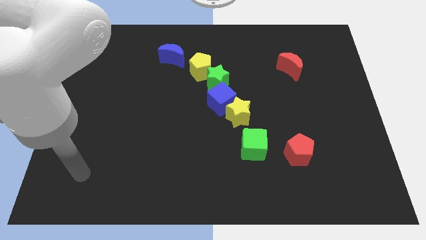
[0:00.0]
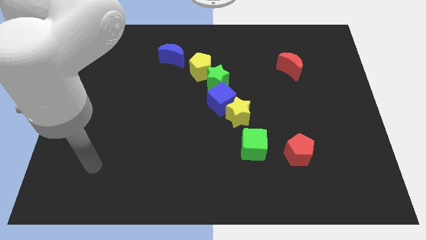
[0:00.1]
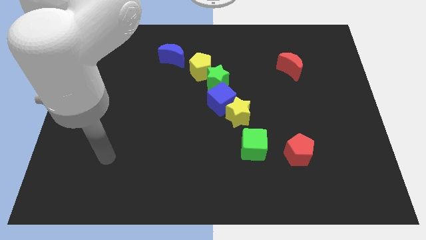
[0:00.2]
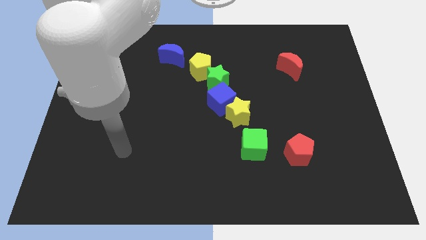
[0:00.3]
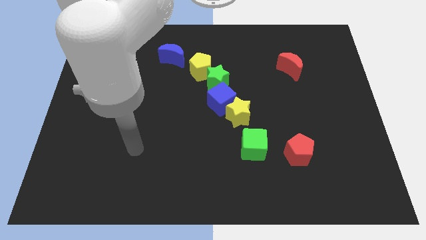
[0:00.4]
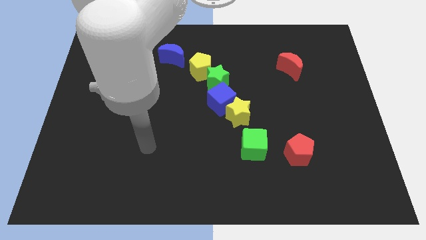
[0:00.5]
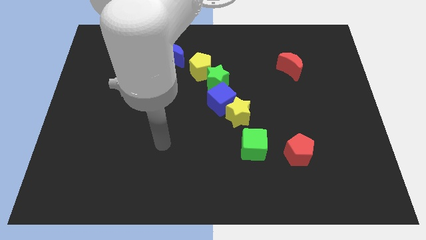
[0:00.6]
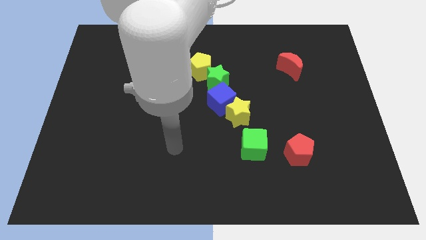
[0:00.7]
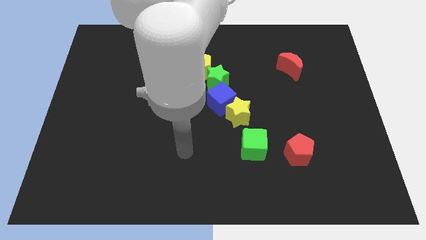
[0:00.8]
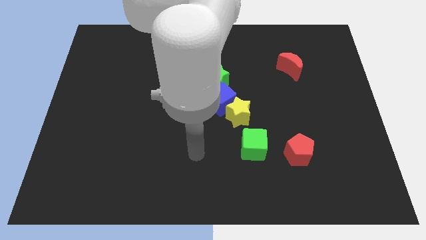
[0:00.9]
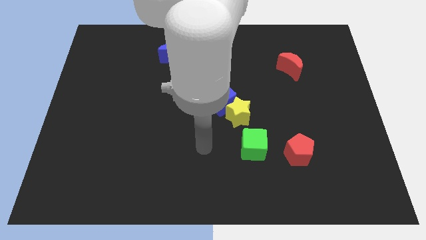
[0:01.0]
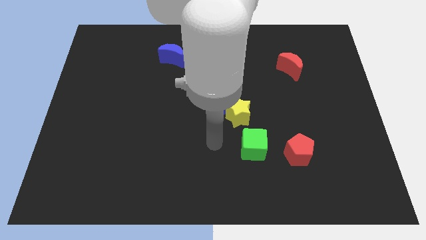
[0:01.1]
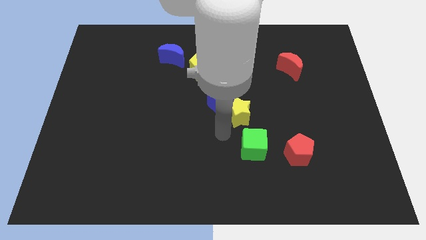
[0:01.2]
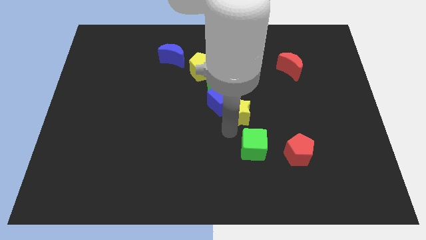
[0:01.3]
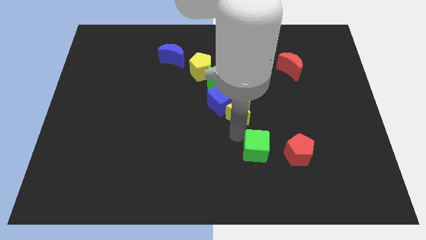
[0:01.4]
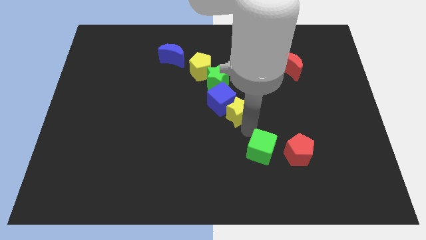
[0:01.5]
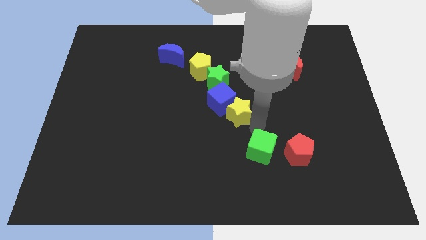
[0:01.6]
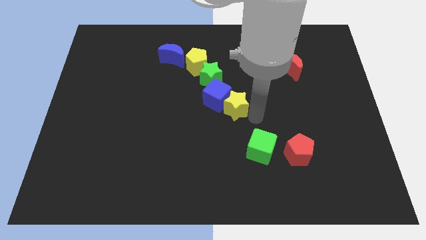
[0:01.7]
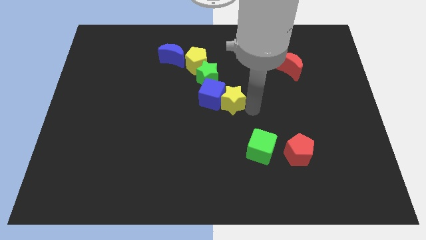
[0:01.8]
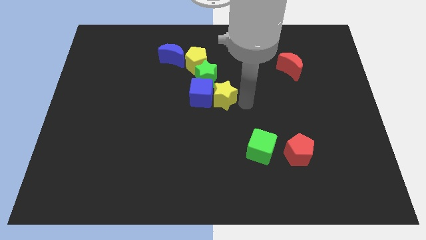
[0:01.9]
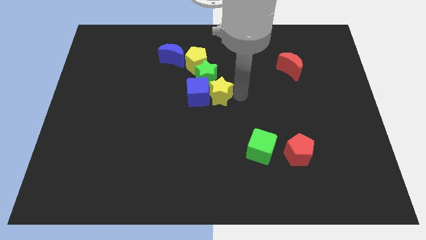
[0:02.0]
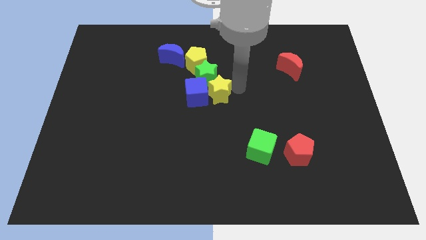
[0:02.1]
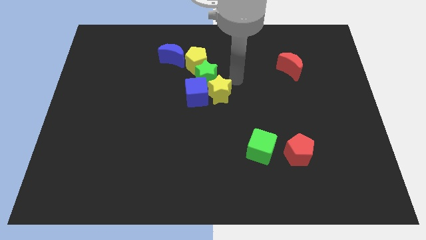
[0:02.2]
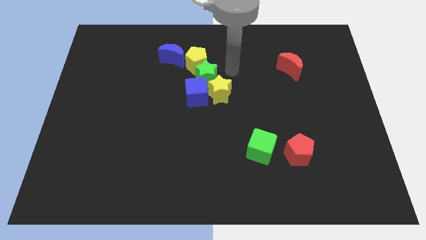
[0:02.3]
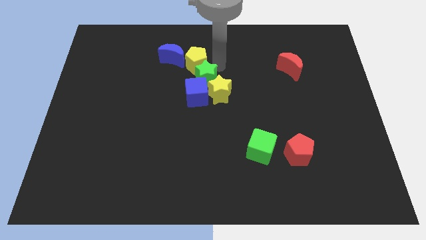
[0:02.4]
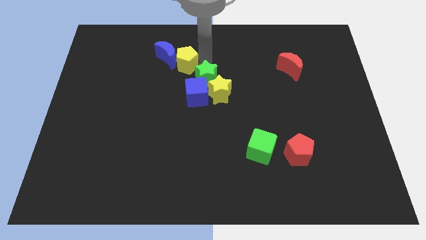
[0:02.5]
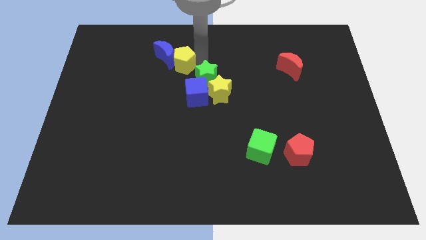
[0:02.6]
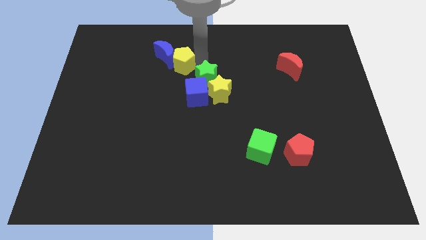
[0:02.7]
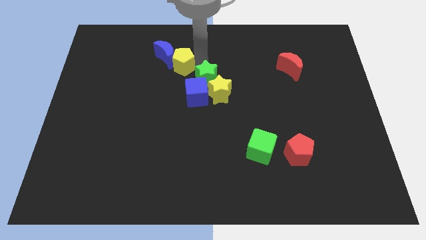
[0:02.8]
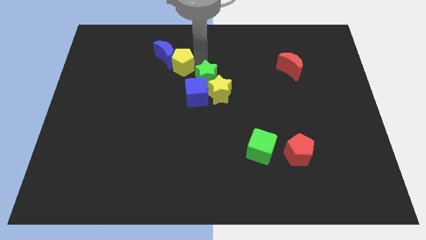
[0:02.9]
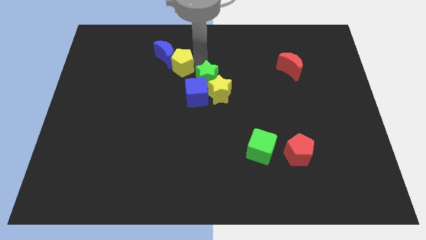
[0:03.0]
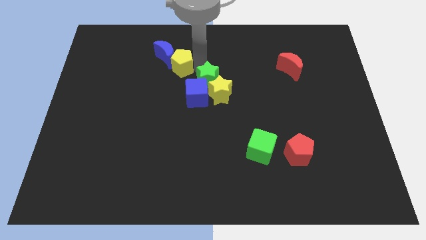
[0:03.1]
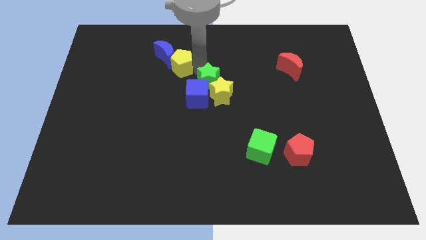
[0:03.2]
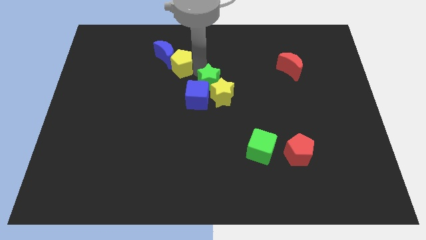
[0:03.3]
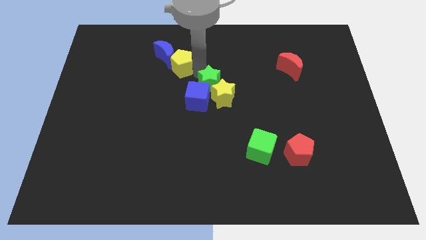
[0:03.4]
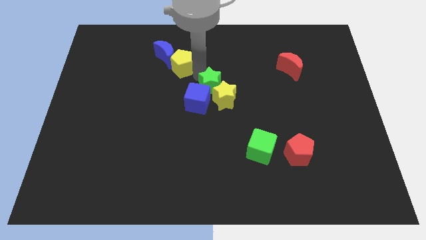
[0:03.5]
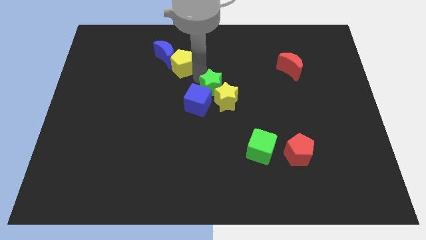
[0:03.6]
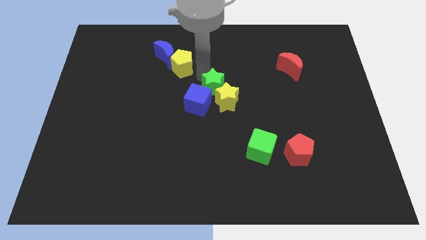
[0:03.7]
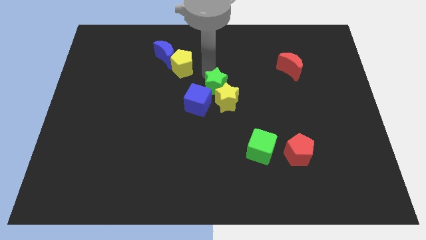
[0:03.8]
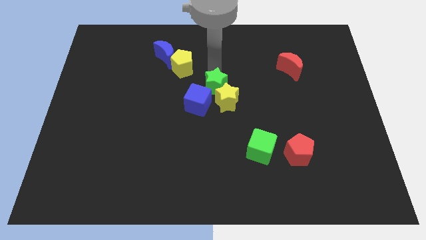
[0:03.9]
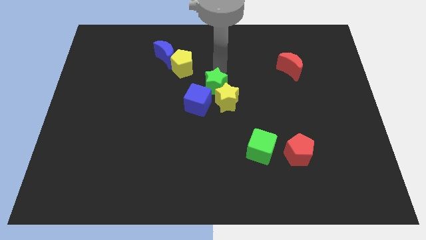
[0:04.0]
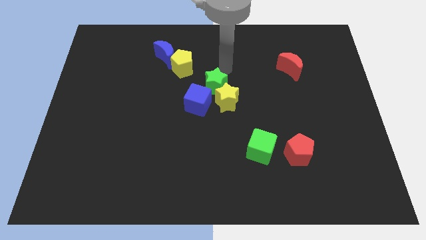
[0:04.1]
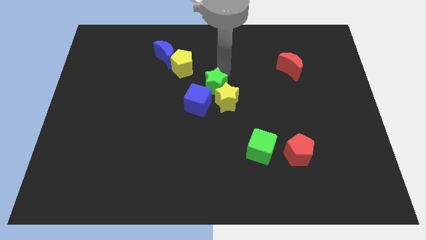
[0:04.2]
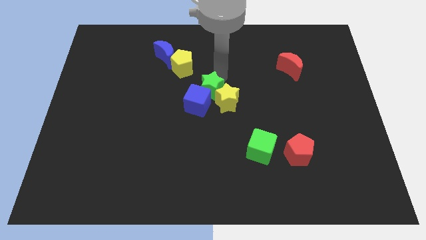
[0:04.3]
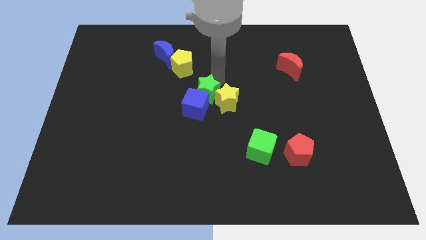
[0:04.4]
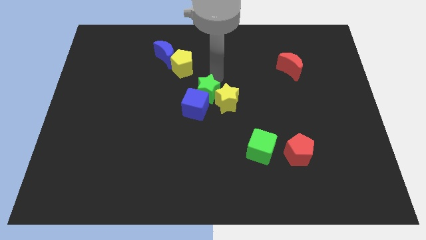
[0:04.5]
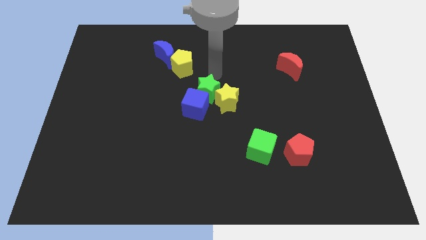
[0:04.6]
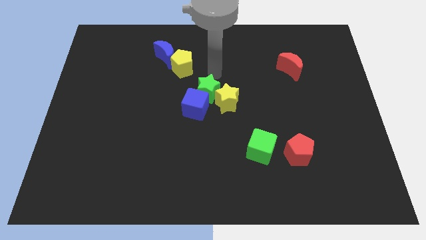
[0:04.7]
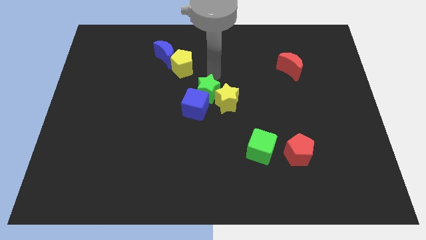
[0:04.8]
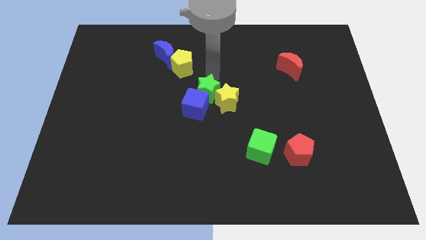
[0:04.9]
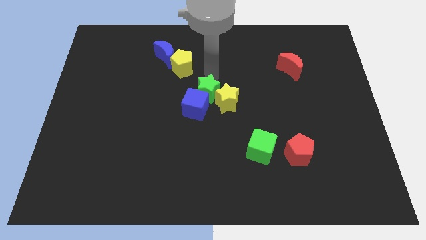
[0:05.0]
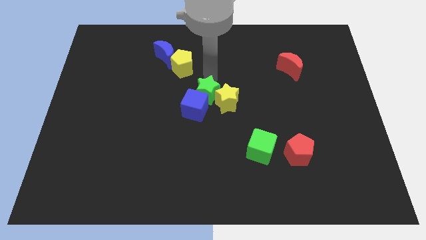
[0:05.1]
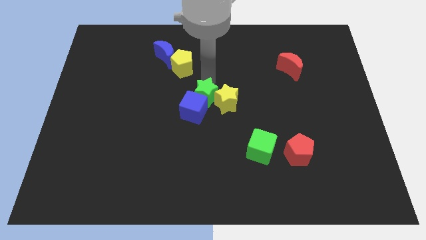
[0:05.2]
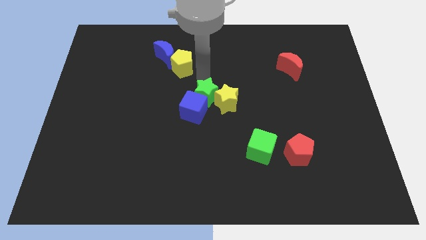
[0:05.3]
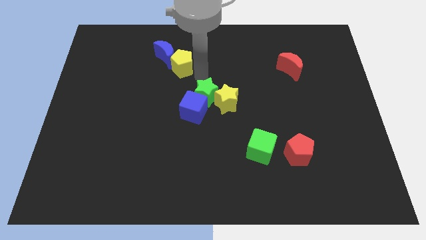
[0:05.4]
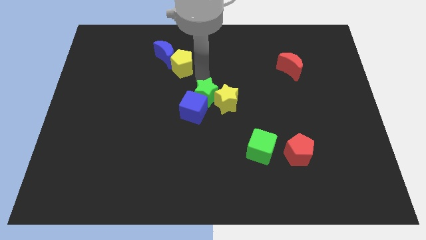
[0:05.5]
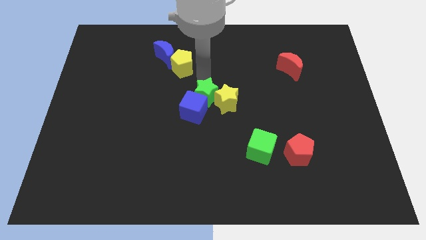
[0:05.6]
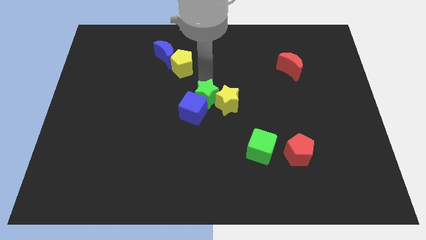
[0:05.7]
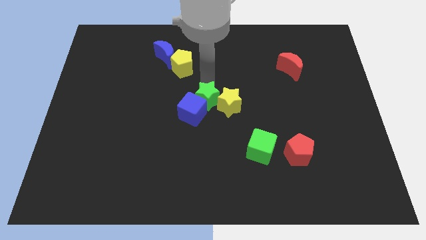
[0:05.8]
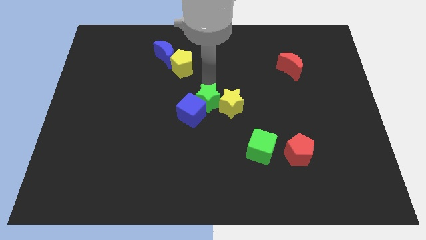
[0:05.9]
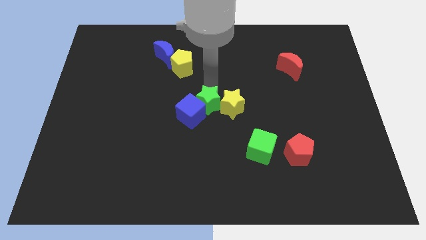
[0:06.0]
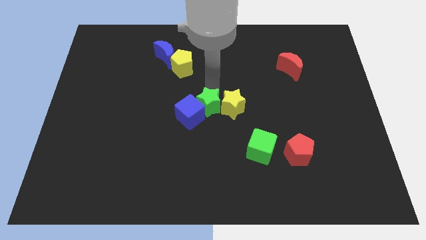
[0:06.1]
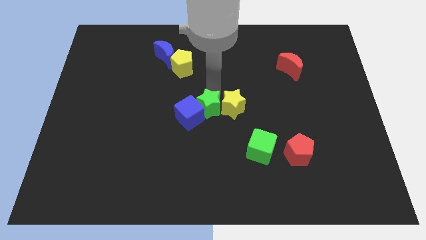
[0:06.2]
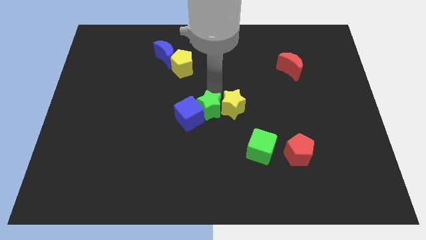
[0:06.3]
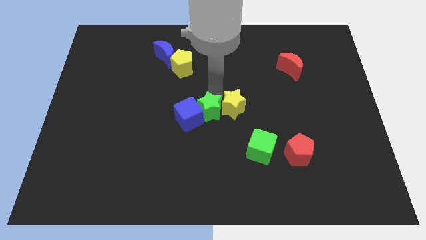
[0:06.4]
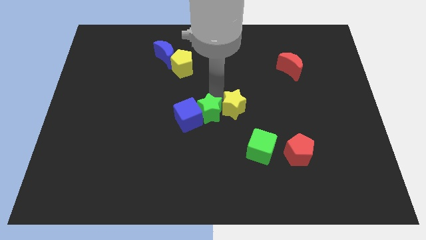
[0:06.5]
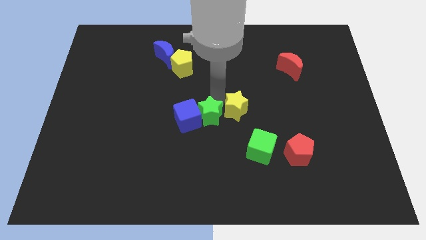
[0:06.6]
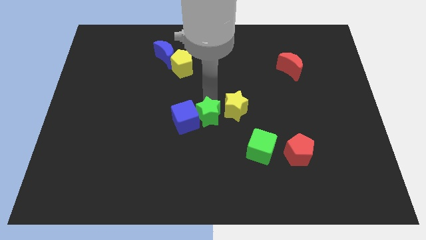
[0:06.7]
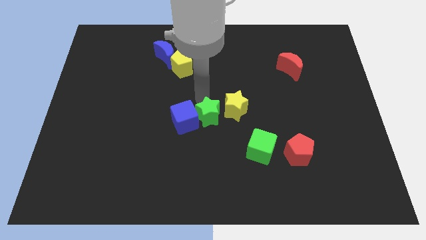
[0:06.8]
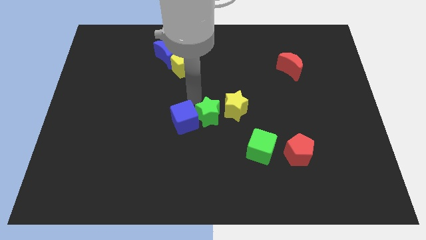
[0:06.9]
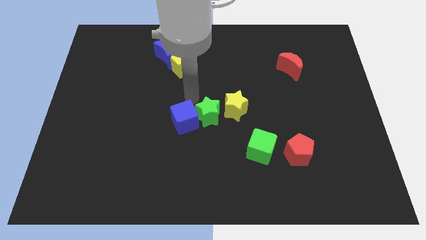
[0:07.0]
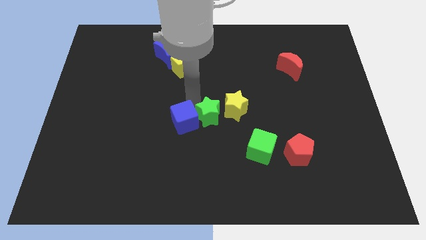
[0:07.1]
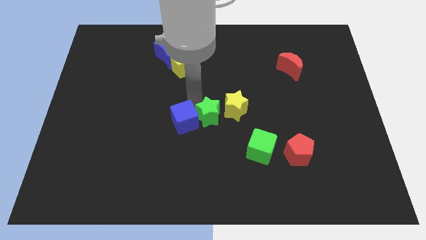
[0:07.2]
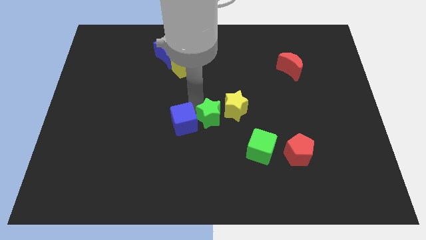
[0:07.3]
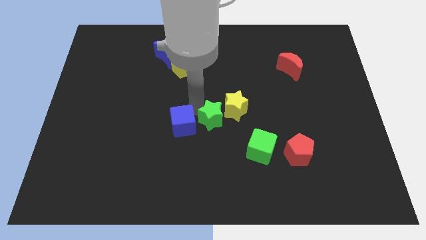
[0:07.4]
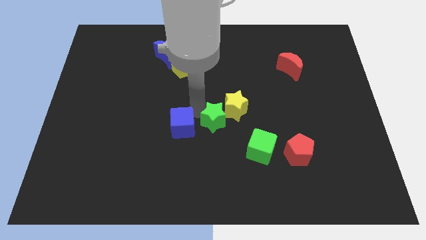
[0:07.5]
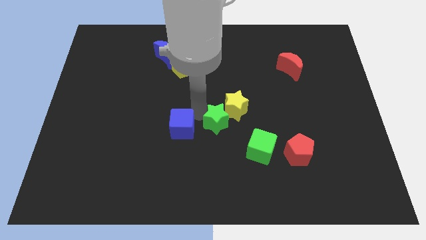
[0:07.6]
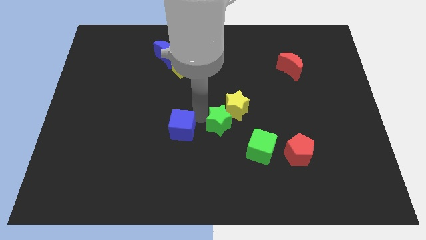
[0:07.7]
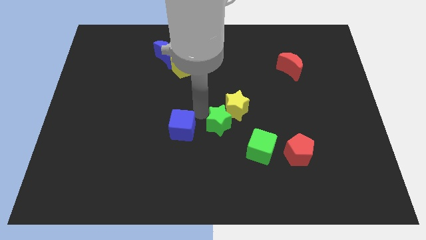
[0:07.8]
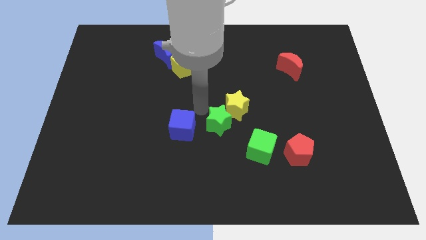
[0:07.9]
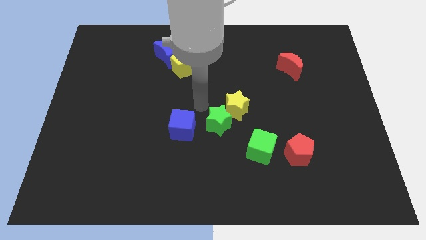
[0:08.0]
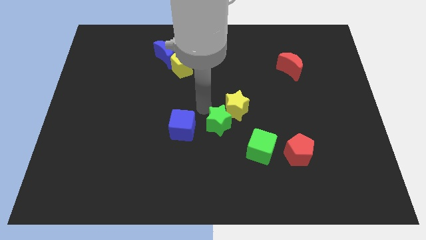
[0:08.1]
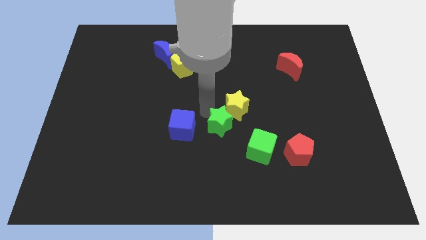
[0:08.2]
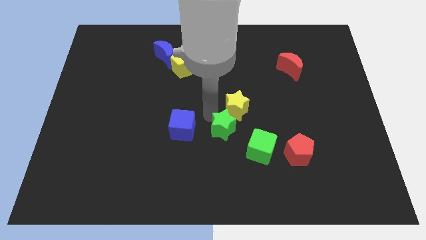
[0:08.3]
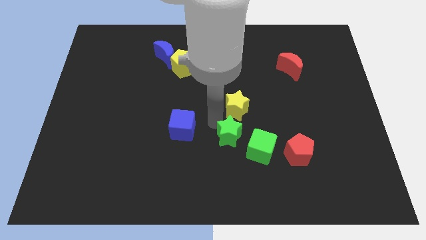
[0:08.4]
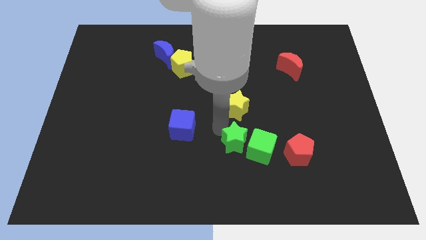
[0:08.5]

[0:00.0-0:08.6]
move the green star next to the green cube
